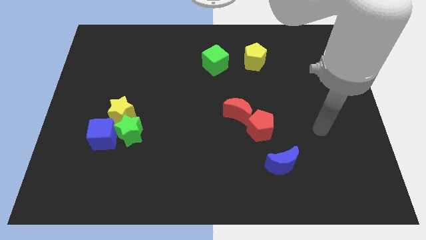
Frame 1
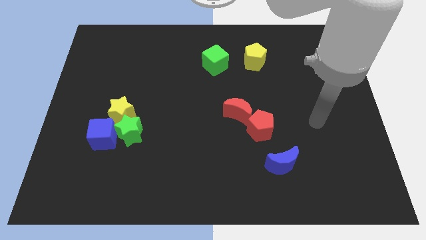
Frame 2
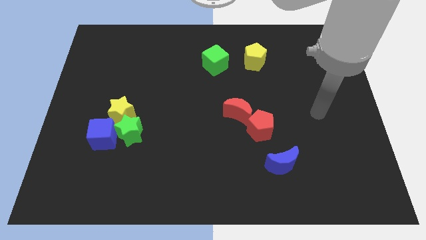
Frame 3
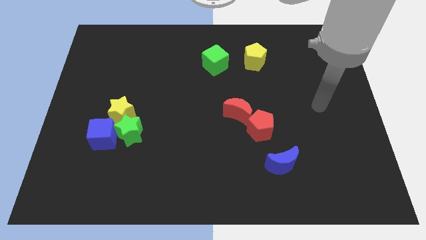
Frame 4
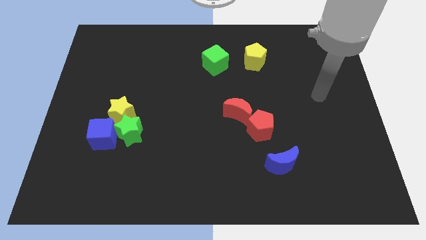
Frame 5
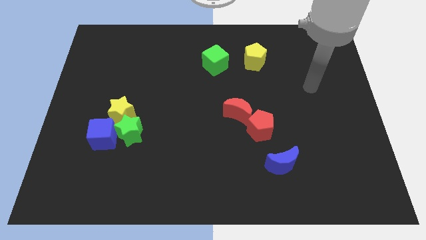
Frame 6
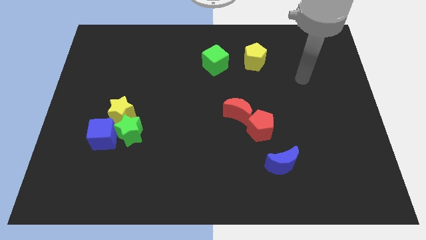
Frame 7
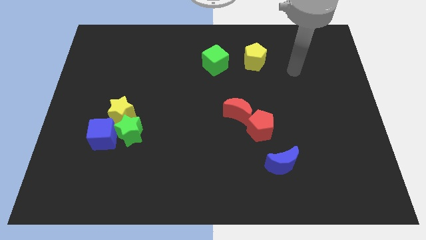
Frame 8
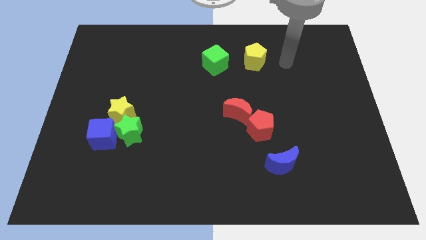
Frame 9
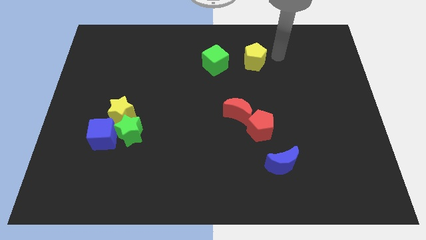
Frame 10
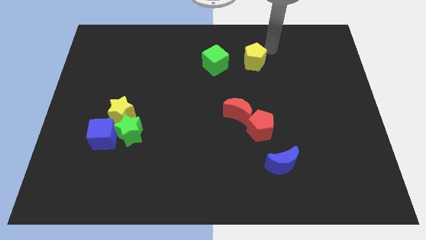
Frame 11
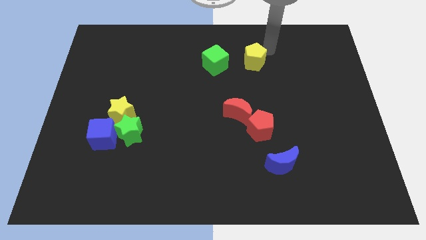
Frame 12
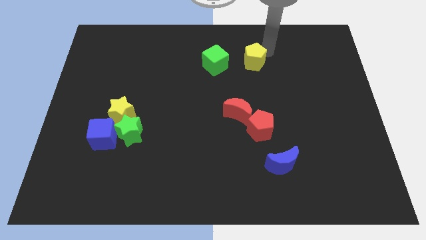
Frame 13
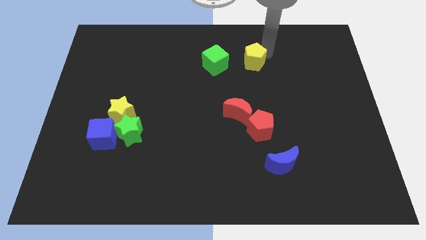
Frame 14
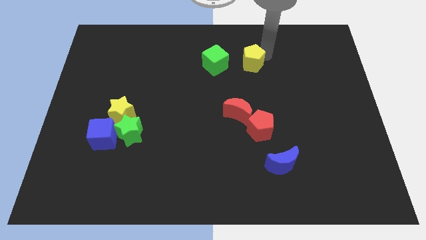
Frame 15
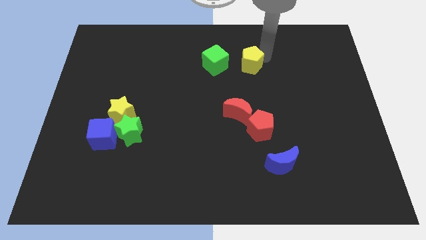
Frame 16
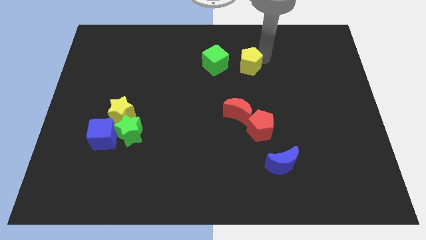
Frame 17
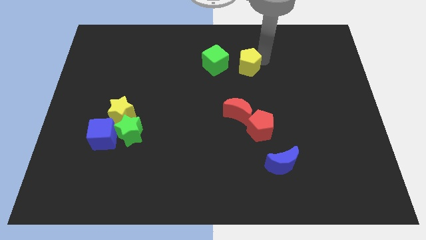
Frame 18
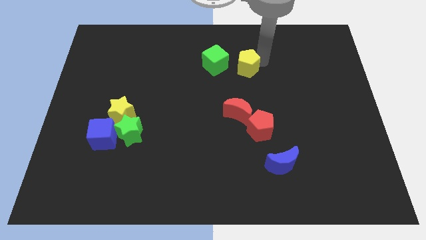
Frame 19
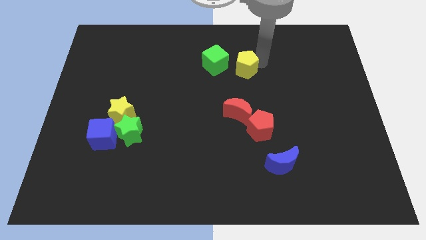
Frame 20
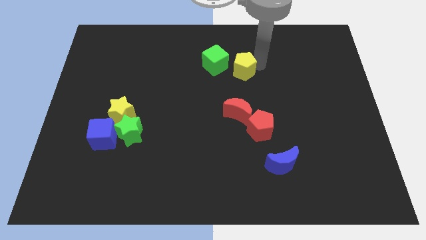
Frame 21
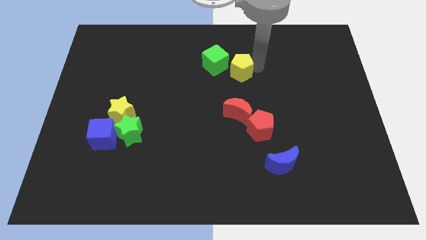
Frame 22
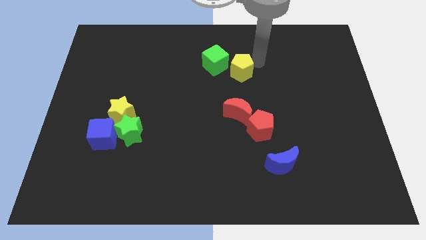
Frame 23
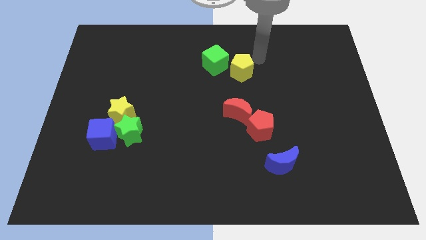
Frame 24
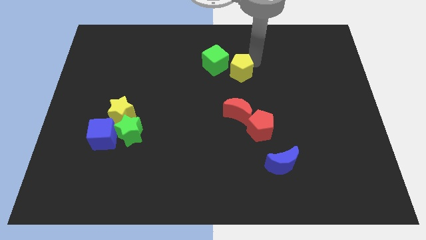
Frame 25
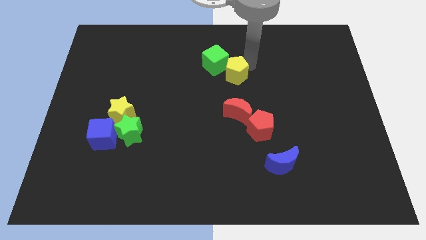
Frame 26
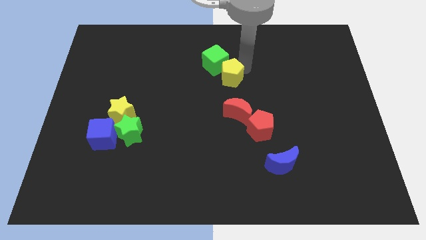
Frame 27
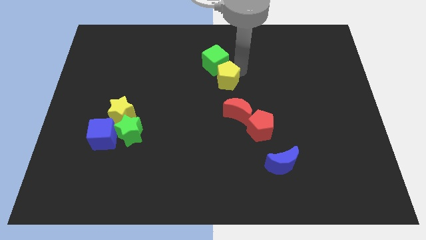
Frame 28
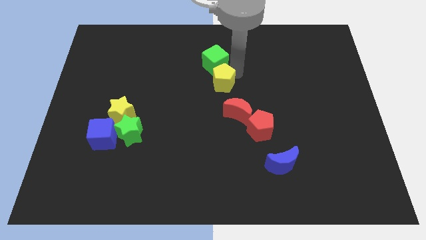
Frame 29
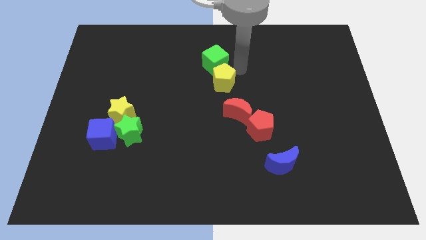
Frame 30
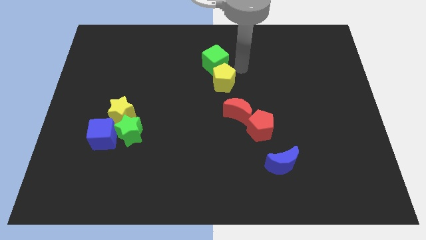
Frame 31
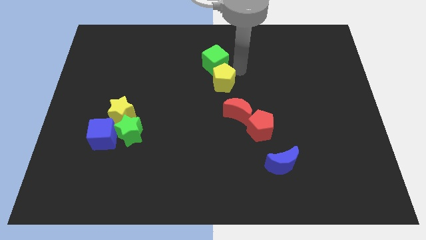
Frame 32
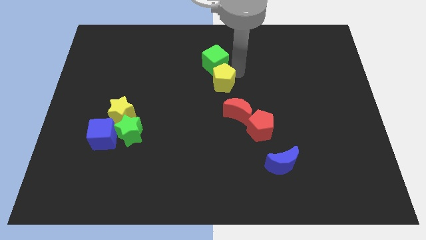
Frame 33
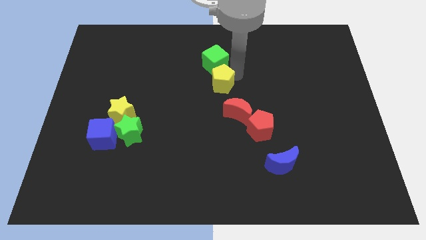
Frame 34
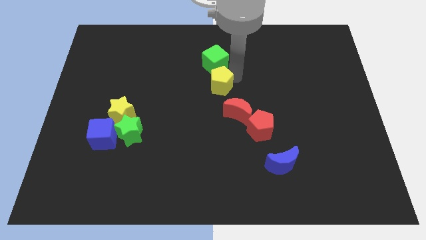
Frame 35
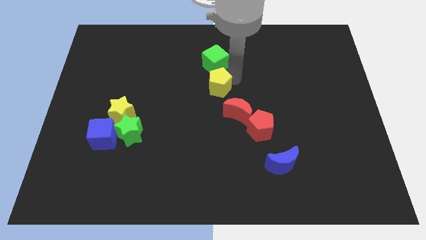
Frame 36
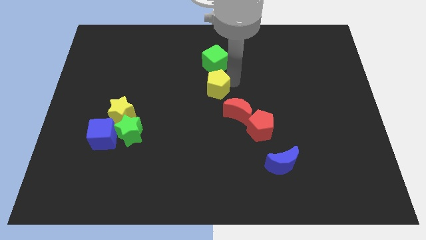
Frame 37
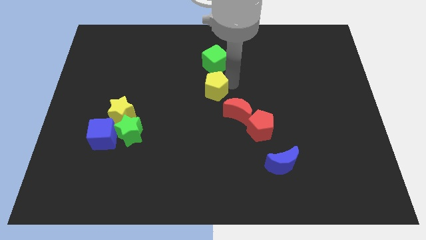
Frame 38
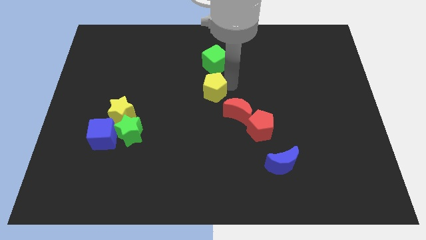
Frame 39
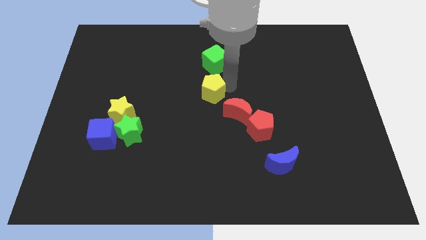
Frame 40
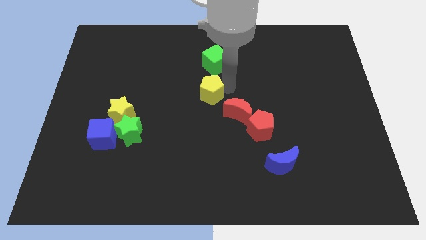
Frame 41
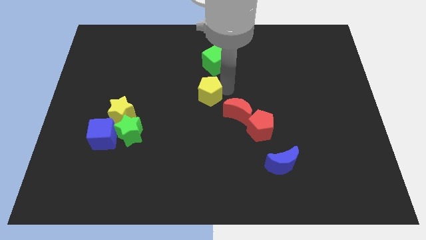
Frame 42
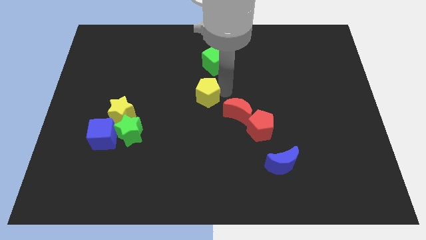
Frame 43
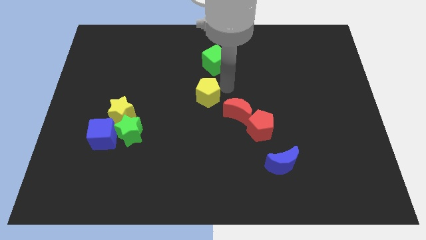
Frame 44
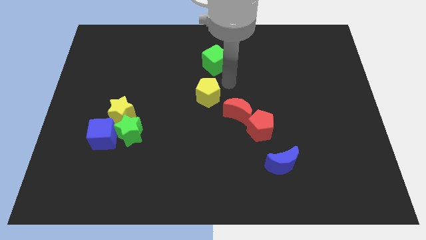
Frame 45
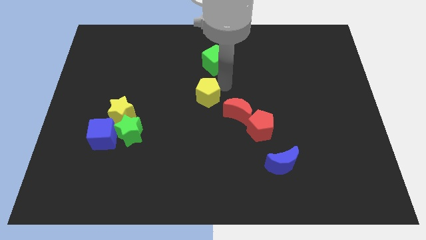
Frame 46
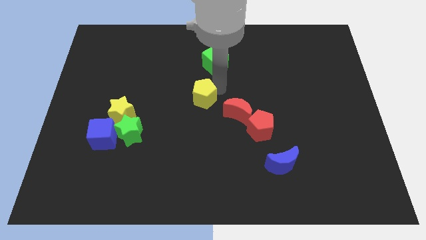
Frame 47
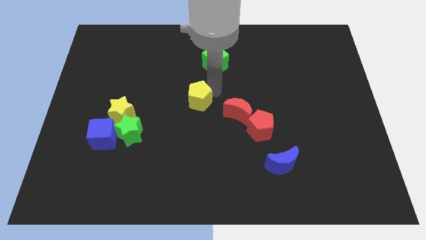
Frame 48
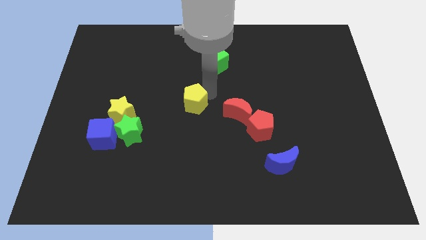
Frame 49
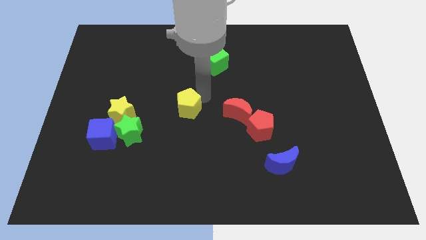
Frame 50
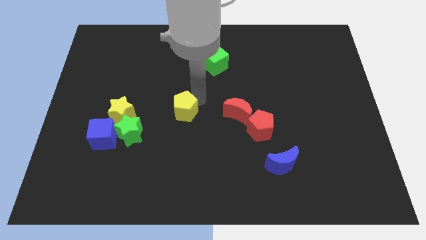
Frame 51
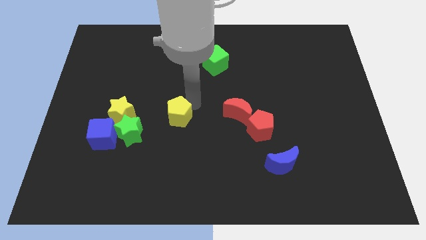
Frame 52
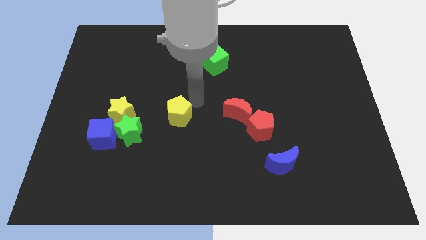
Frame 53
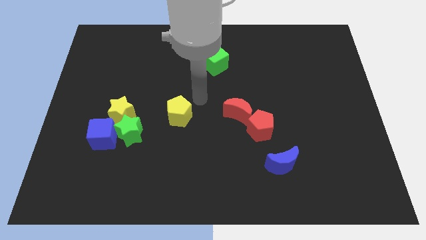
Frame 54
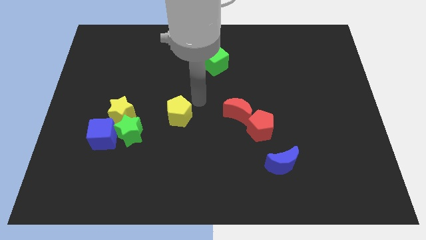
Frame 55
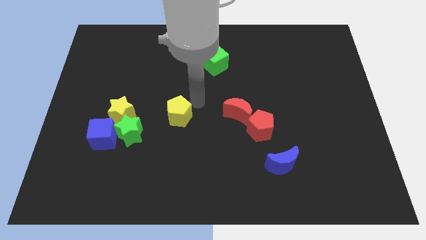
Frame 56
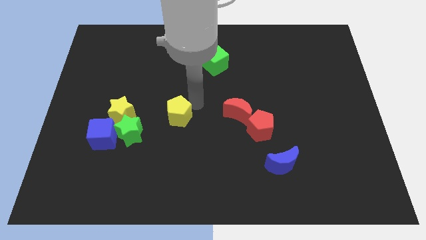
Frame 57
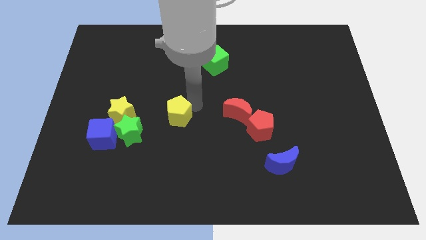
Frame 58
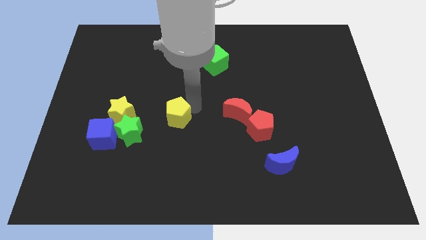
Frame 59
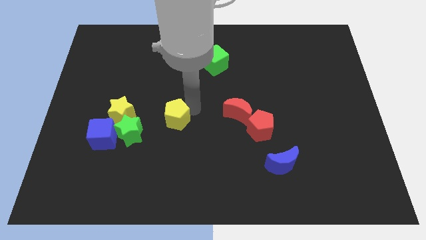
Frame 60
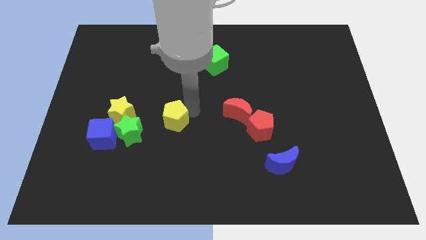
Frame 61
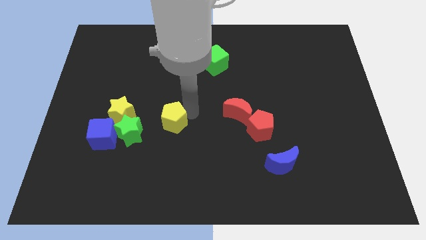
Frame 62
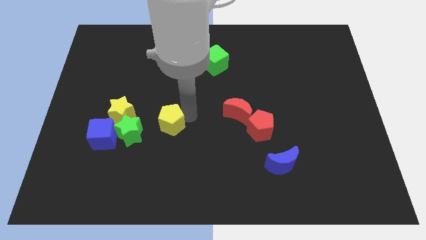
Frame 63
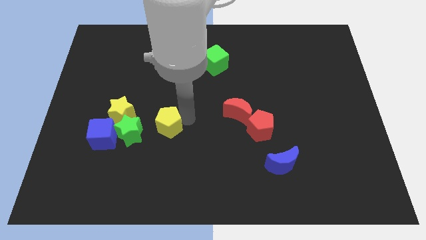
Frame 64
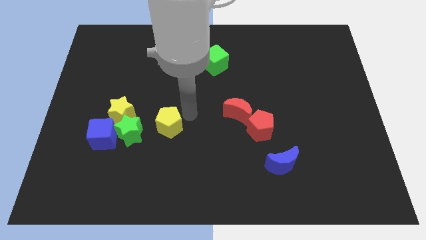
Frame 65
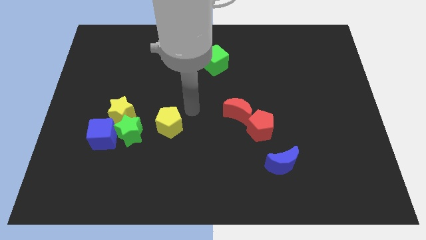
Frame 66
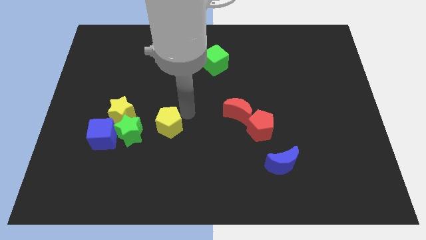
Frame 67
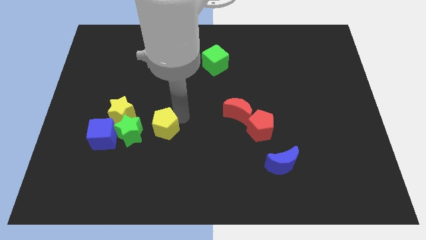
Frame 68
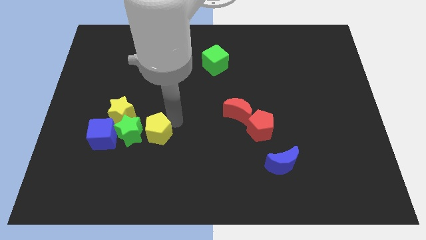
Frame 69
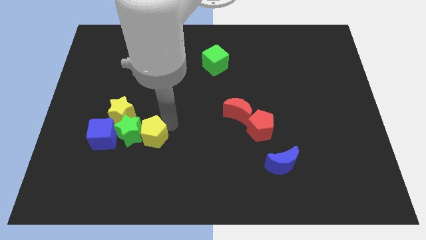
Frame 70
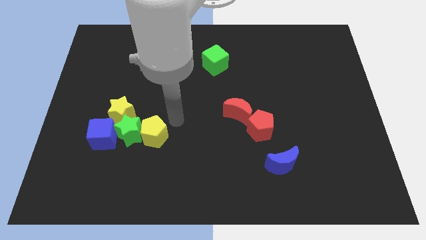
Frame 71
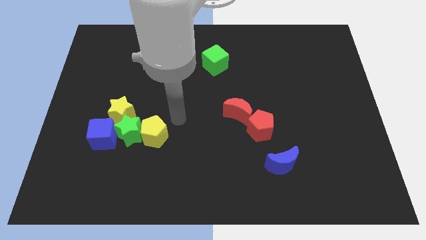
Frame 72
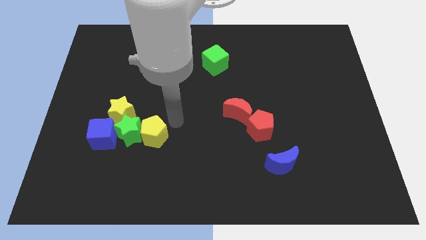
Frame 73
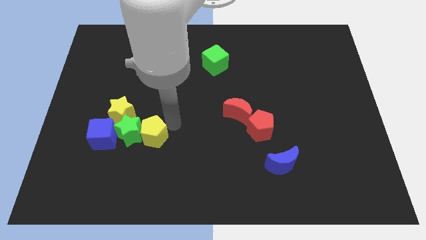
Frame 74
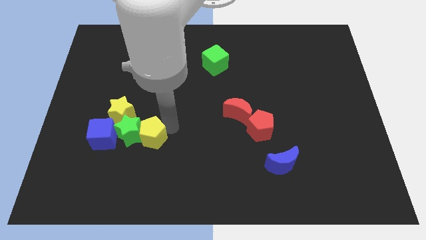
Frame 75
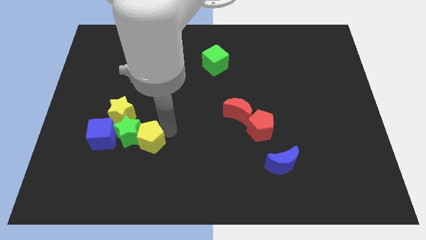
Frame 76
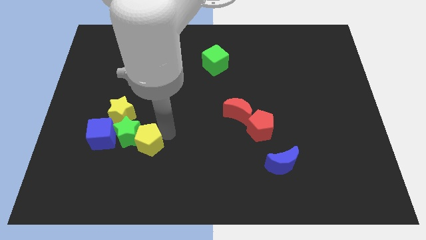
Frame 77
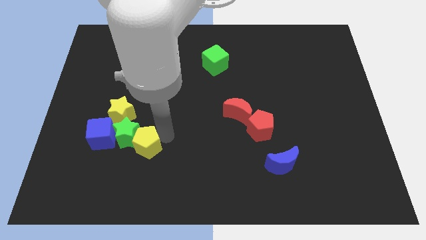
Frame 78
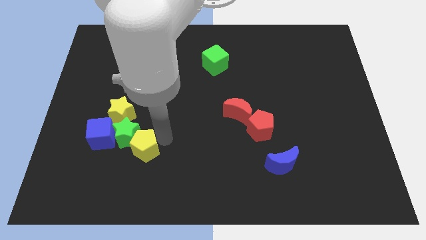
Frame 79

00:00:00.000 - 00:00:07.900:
push the yellow pentagon diagonally down and to the right of the blue cube
